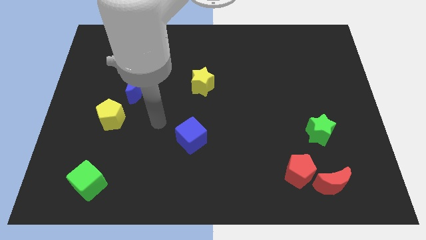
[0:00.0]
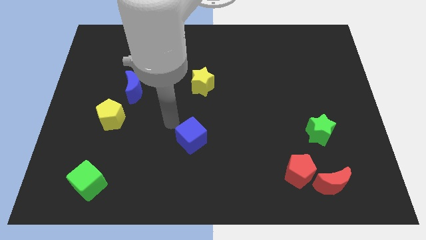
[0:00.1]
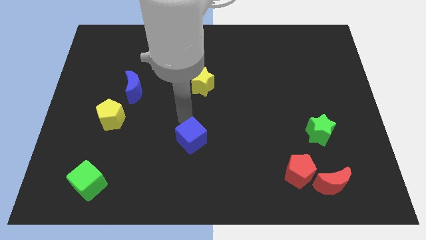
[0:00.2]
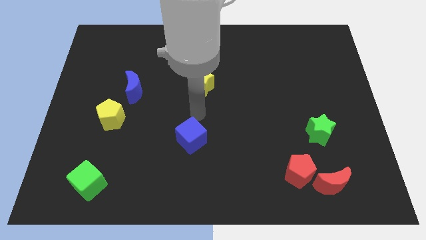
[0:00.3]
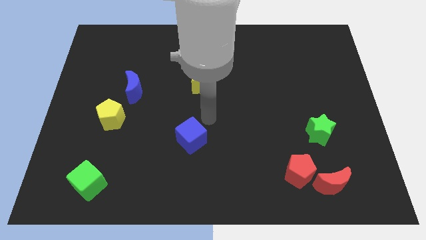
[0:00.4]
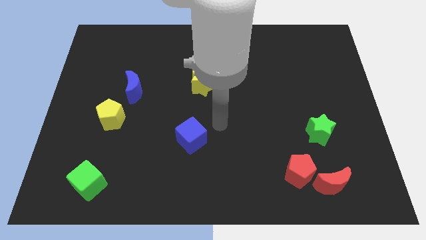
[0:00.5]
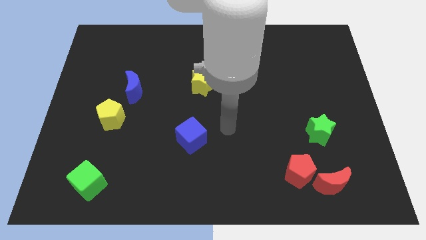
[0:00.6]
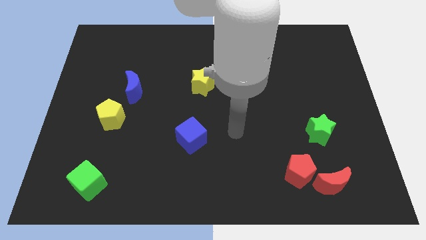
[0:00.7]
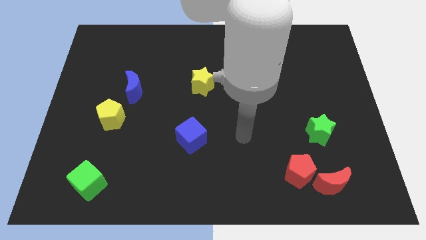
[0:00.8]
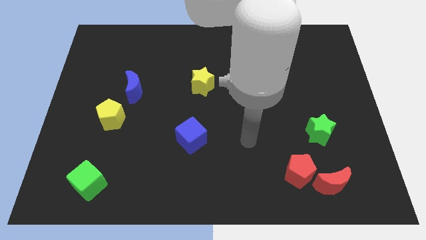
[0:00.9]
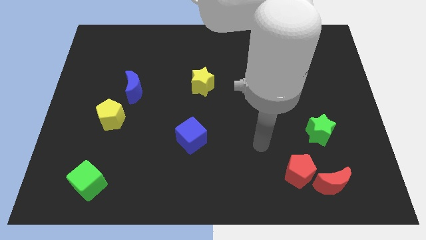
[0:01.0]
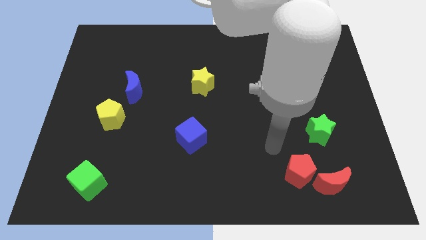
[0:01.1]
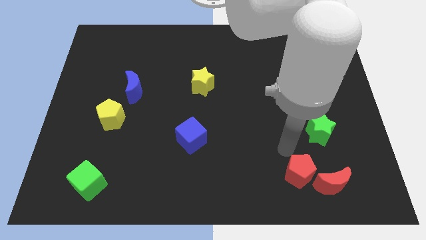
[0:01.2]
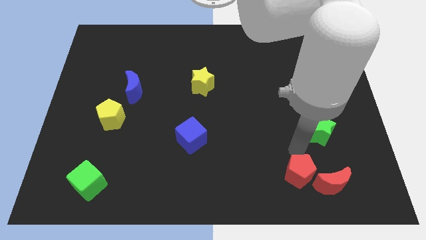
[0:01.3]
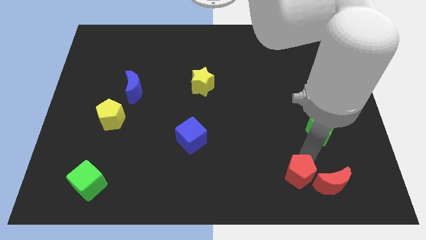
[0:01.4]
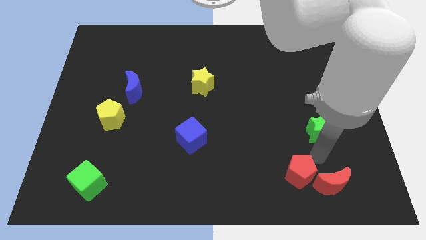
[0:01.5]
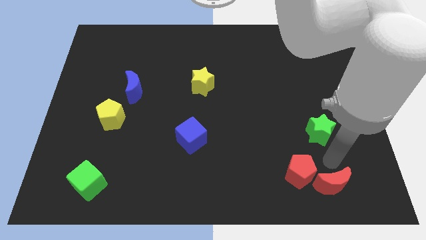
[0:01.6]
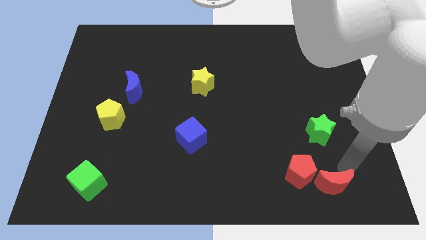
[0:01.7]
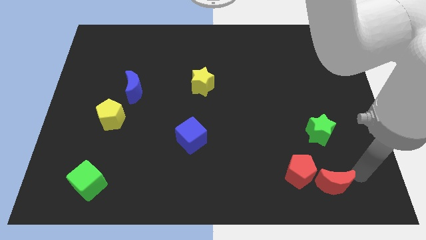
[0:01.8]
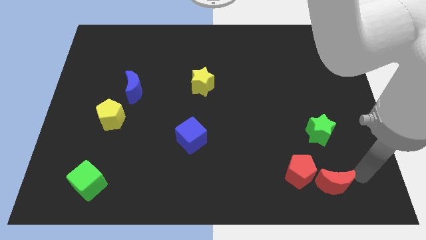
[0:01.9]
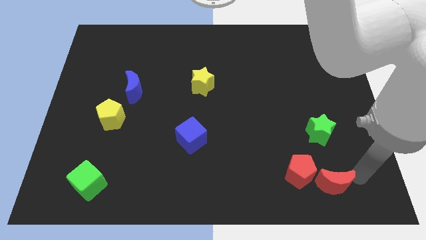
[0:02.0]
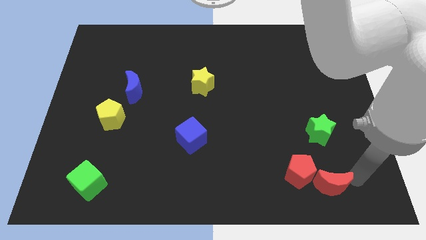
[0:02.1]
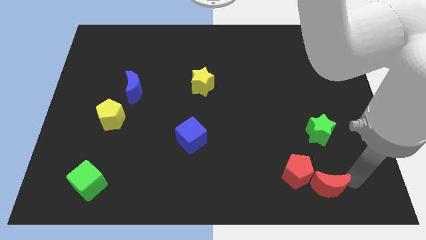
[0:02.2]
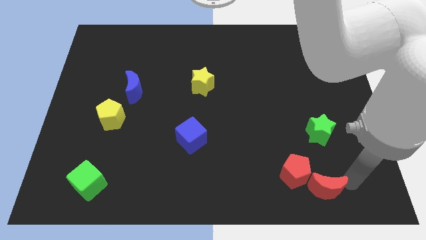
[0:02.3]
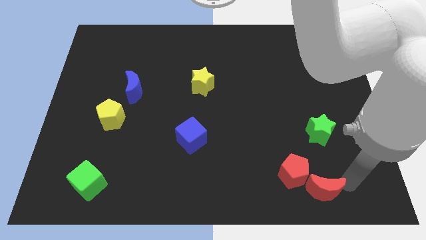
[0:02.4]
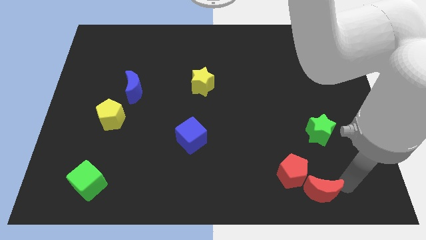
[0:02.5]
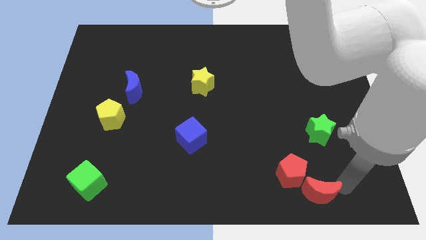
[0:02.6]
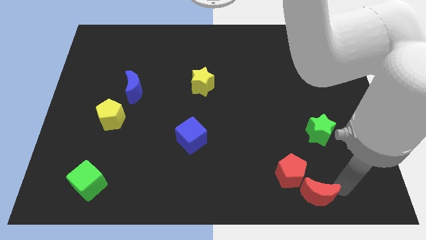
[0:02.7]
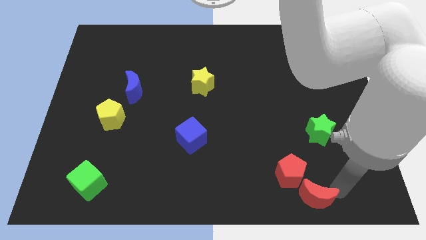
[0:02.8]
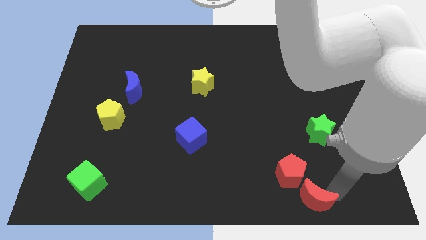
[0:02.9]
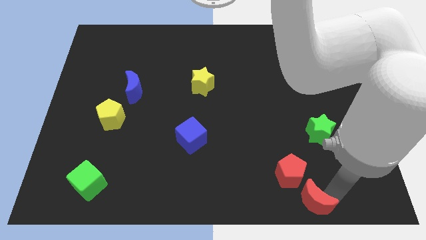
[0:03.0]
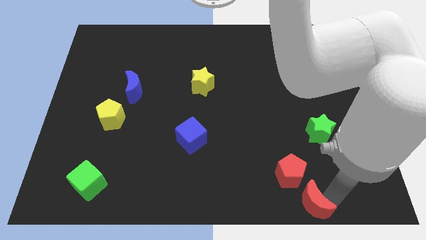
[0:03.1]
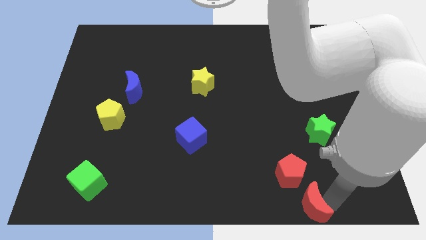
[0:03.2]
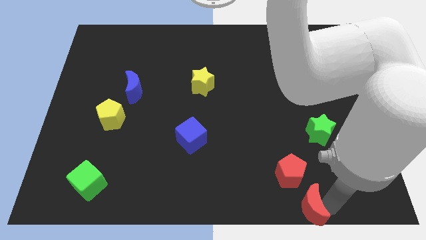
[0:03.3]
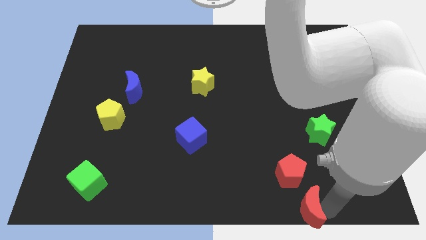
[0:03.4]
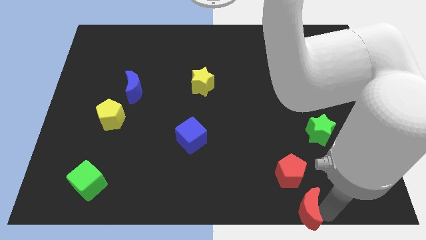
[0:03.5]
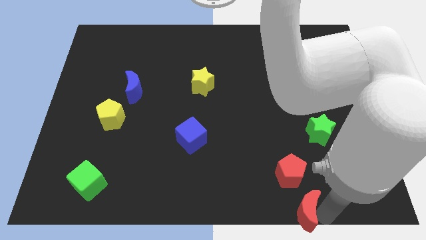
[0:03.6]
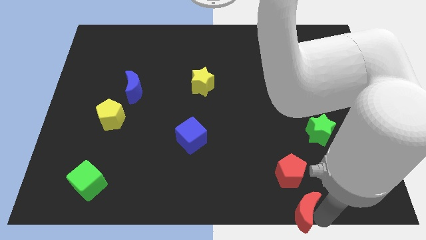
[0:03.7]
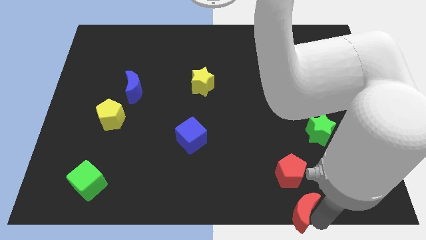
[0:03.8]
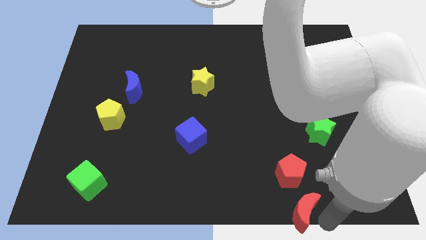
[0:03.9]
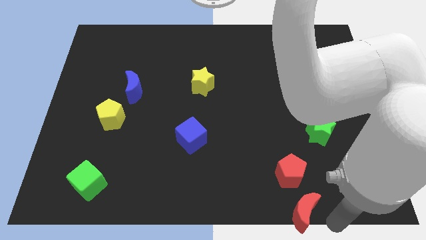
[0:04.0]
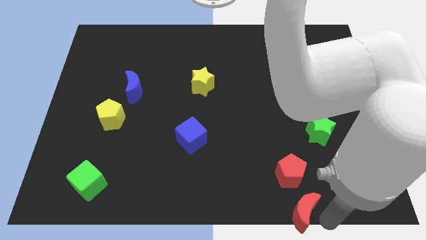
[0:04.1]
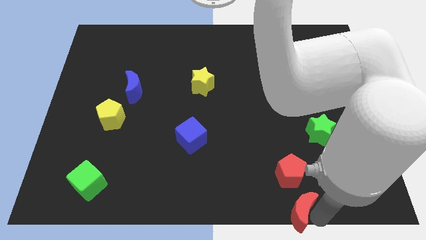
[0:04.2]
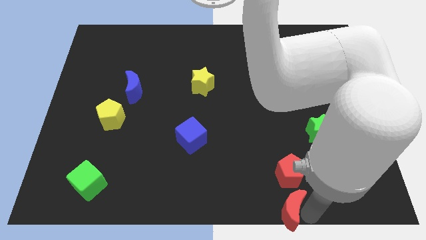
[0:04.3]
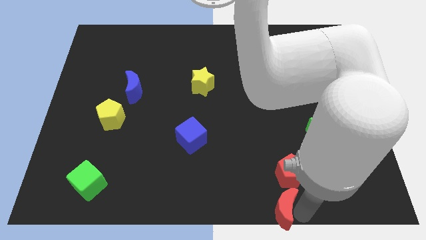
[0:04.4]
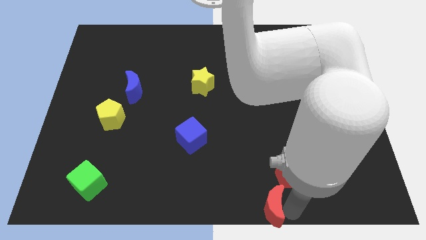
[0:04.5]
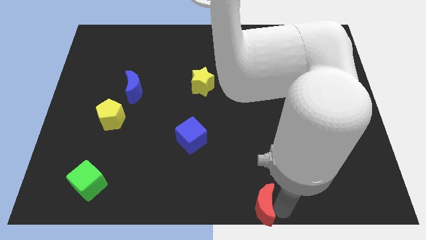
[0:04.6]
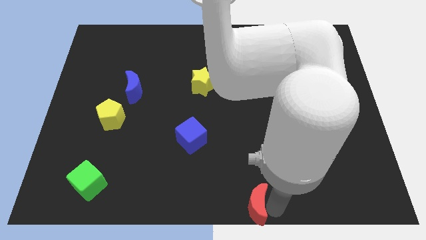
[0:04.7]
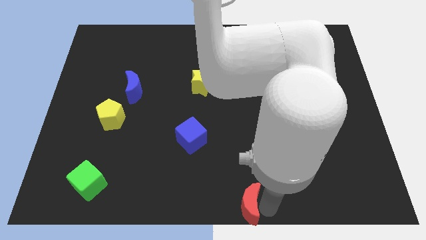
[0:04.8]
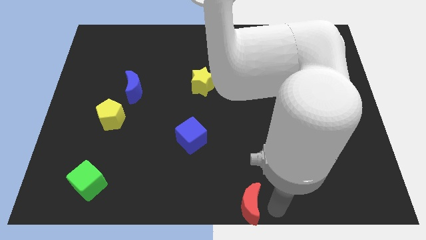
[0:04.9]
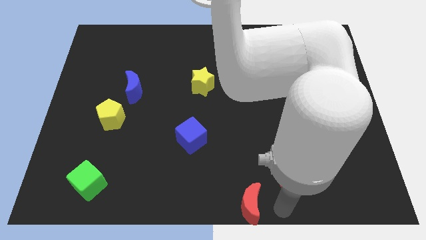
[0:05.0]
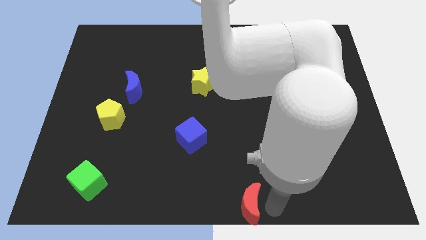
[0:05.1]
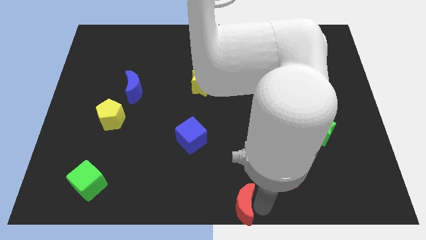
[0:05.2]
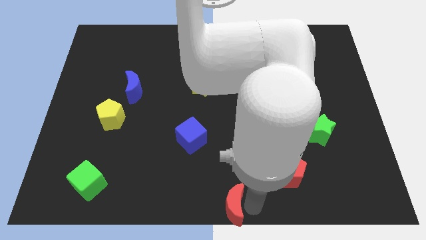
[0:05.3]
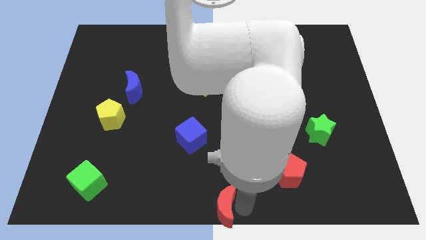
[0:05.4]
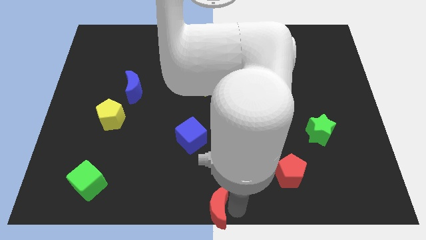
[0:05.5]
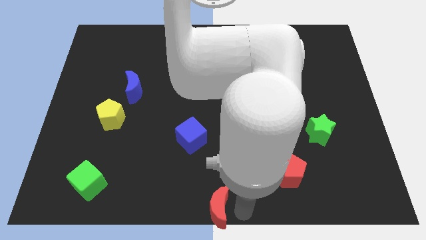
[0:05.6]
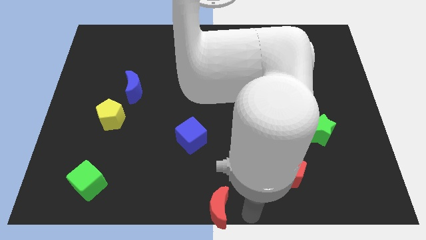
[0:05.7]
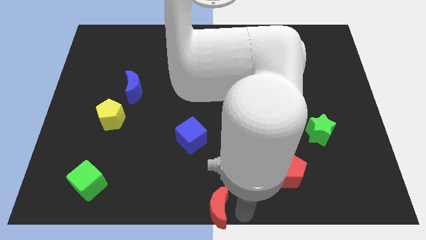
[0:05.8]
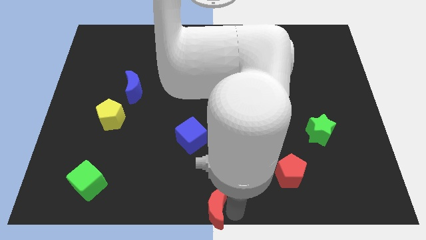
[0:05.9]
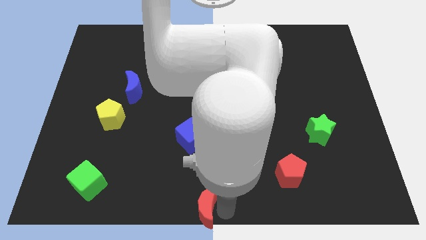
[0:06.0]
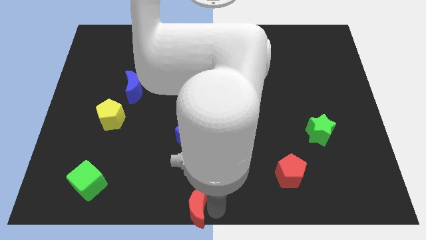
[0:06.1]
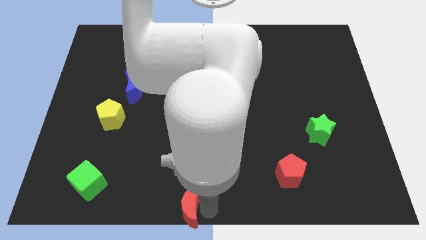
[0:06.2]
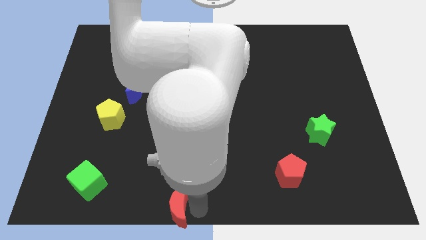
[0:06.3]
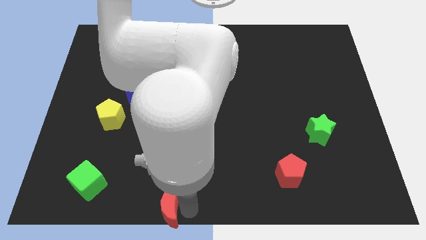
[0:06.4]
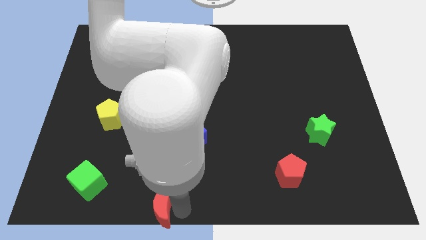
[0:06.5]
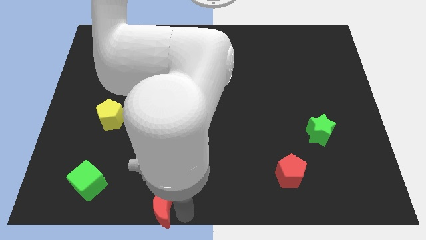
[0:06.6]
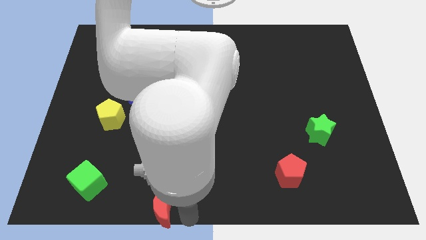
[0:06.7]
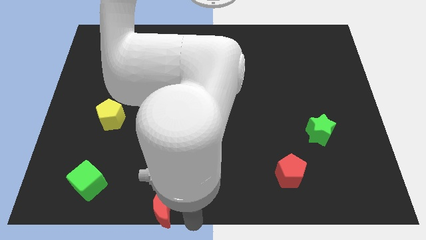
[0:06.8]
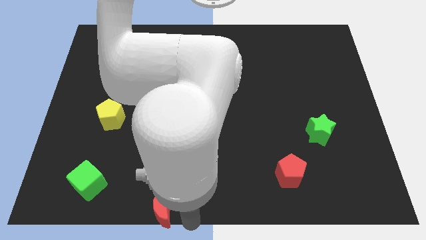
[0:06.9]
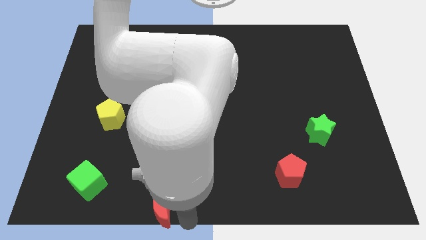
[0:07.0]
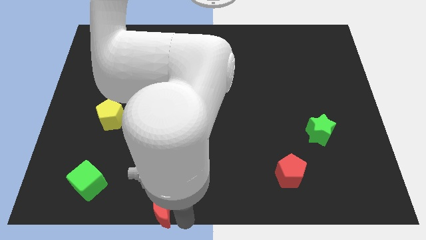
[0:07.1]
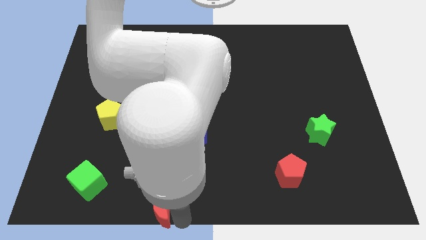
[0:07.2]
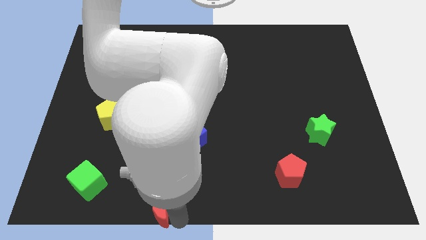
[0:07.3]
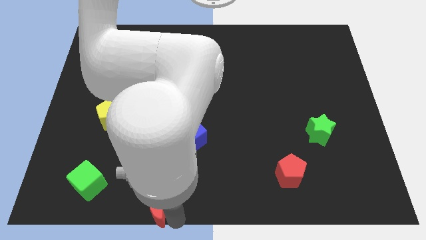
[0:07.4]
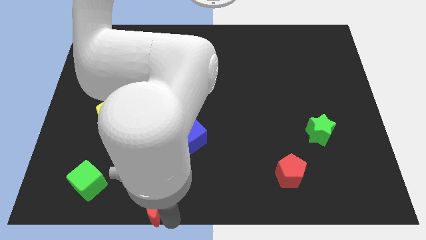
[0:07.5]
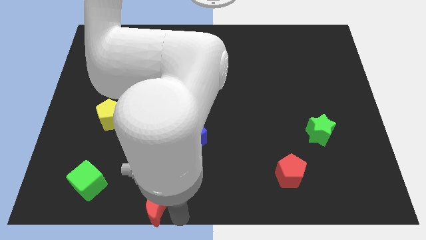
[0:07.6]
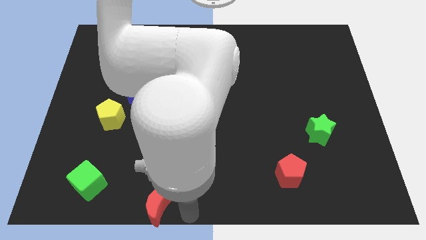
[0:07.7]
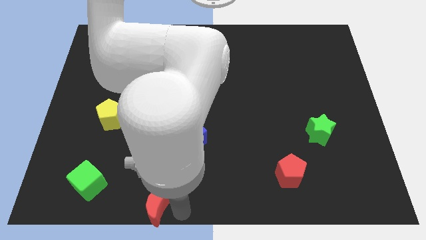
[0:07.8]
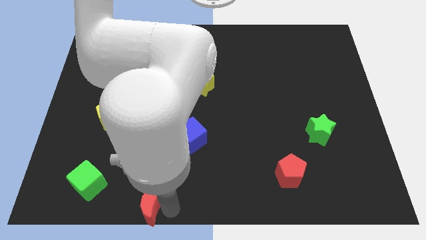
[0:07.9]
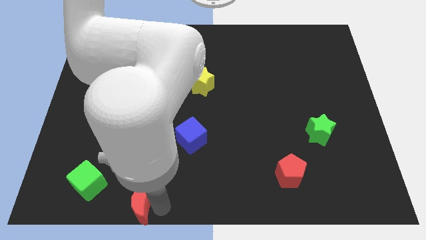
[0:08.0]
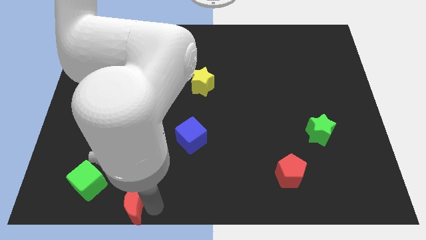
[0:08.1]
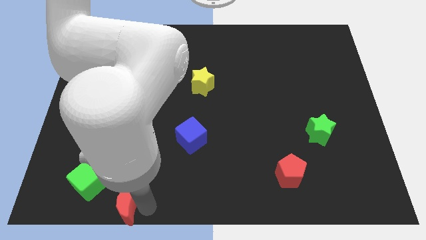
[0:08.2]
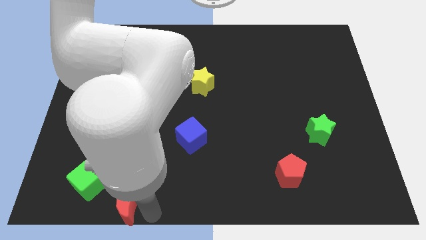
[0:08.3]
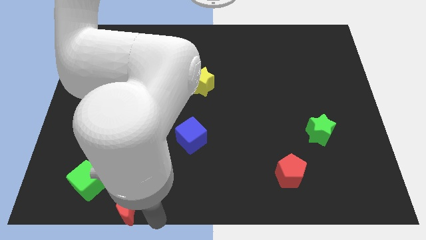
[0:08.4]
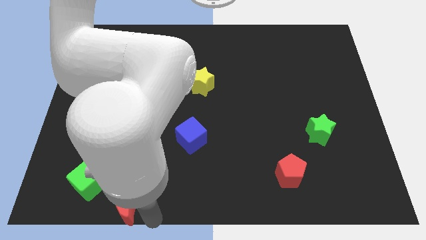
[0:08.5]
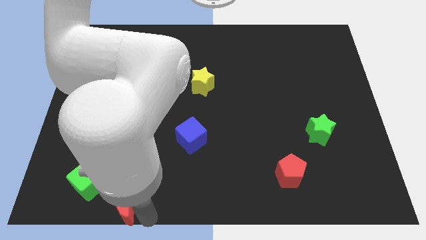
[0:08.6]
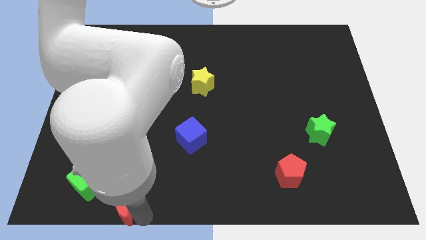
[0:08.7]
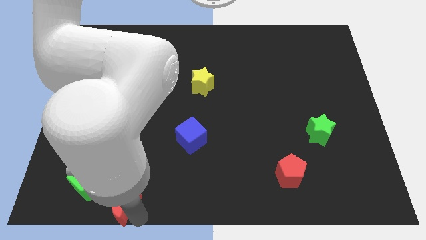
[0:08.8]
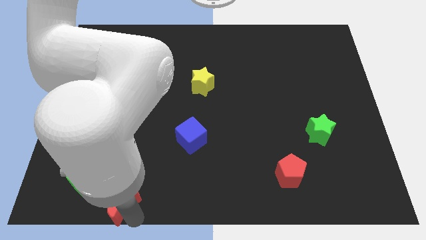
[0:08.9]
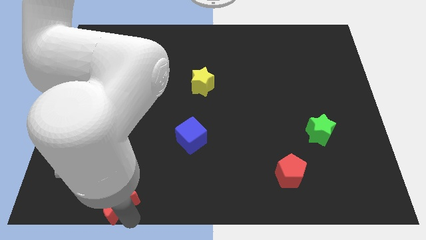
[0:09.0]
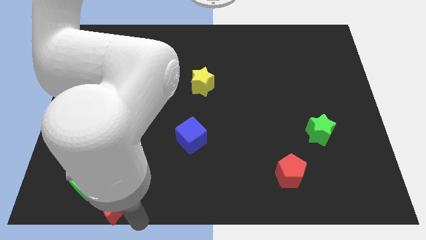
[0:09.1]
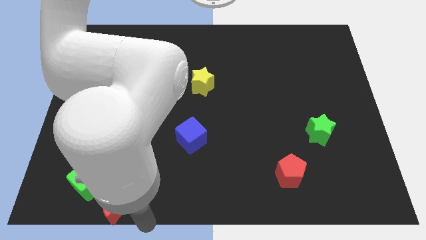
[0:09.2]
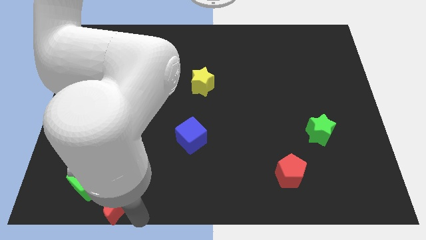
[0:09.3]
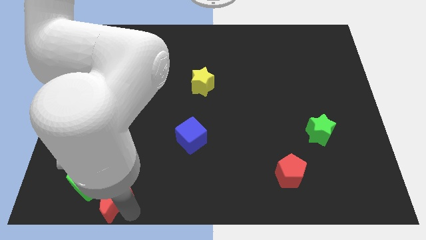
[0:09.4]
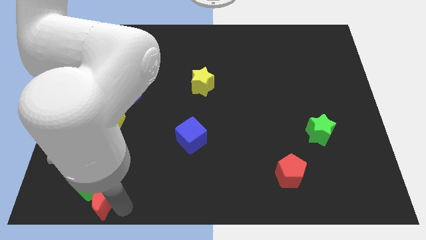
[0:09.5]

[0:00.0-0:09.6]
slide the red moon close to the green cube
